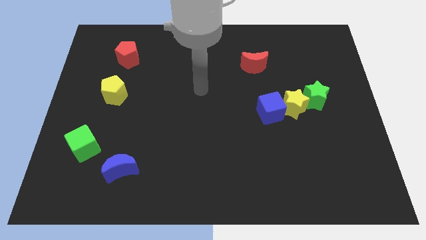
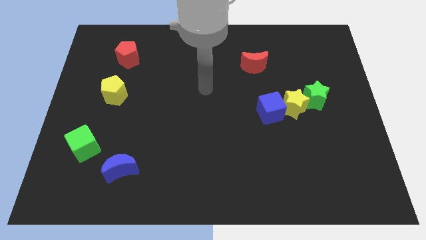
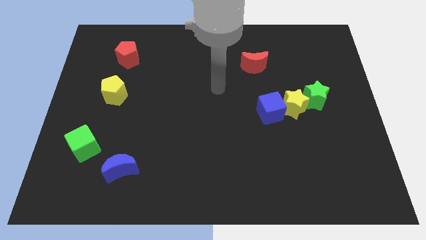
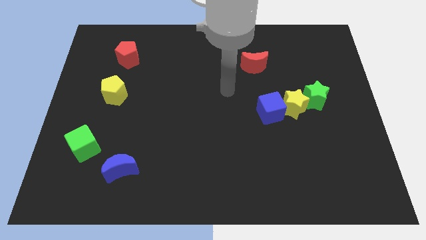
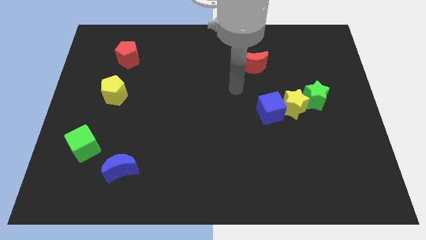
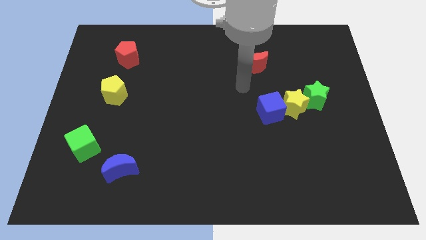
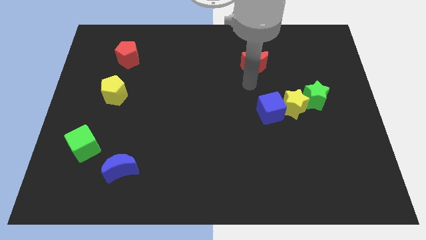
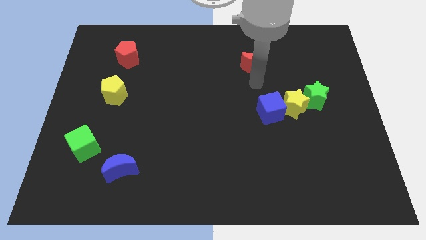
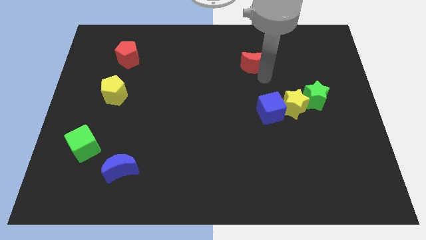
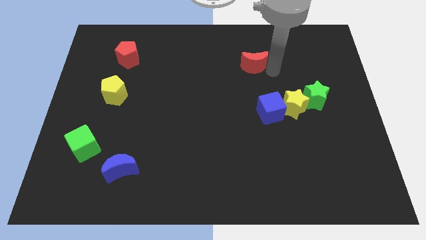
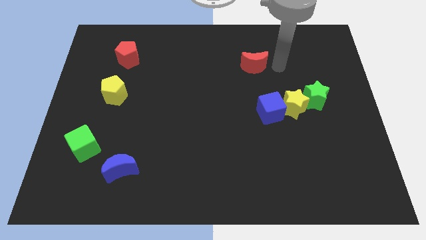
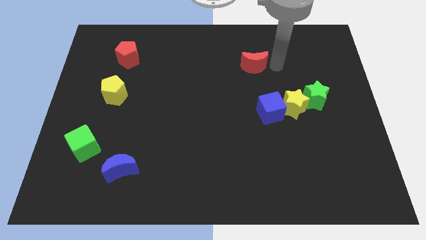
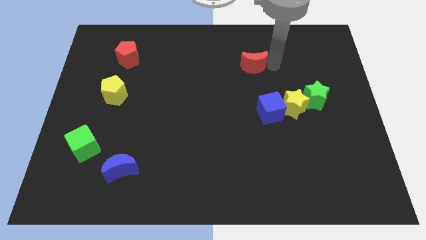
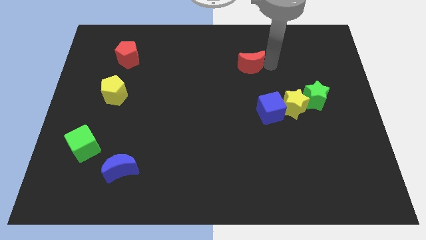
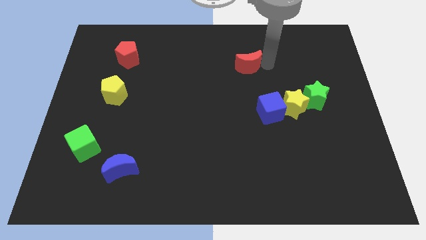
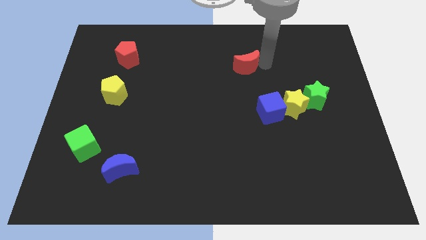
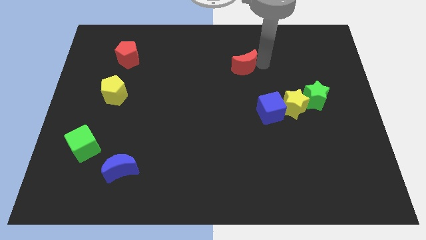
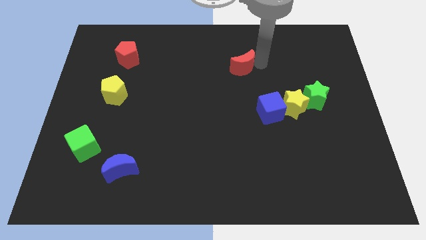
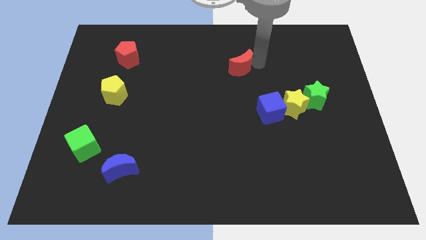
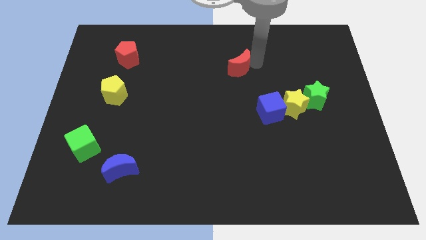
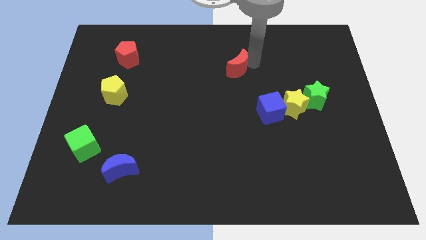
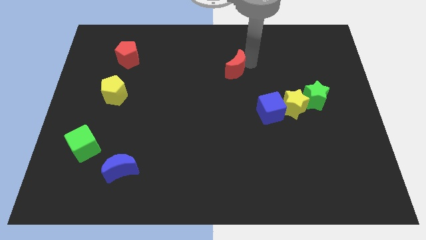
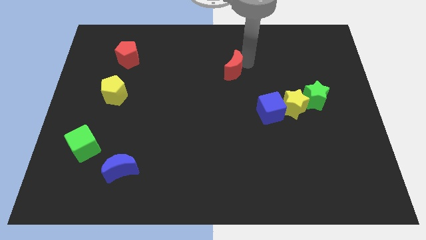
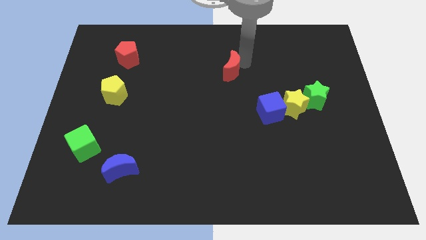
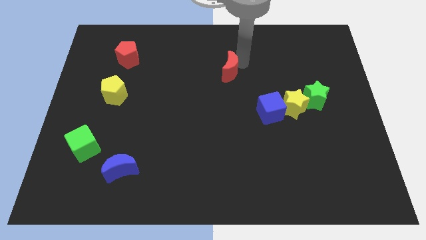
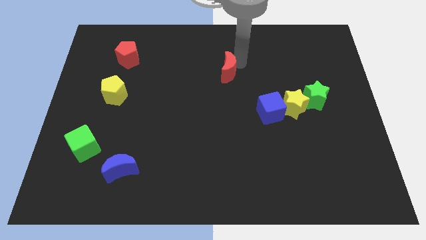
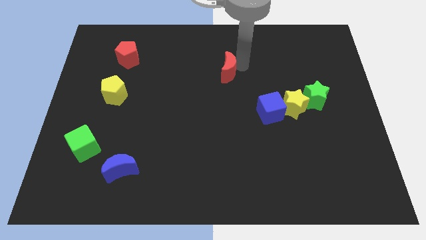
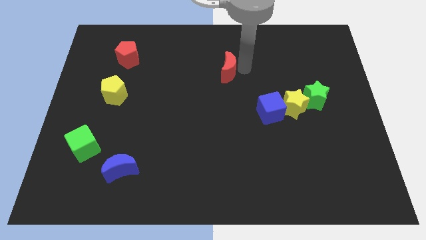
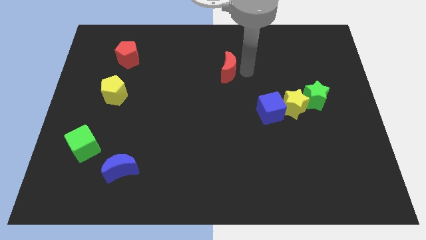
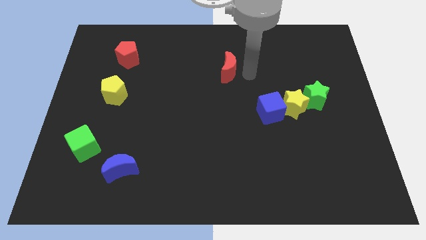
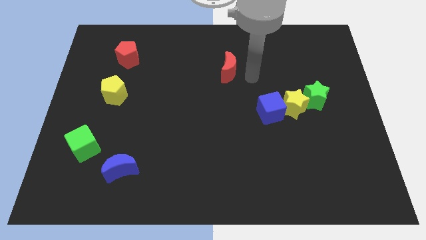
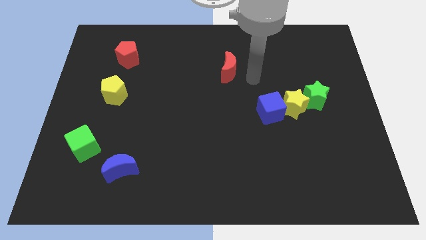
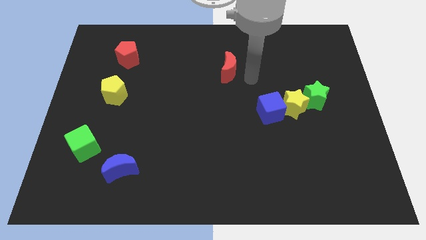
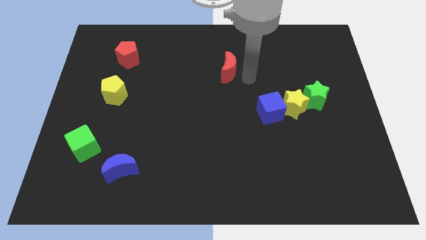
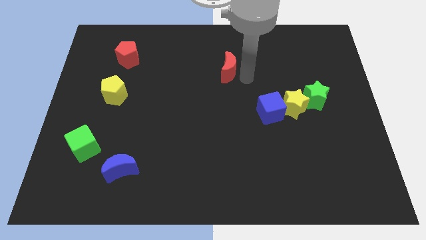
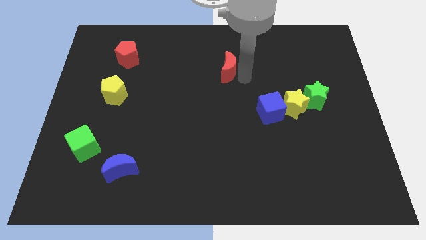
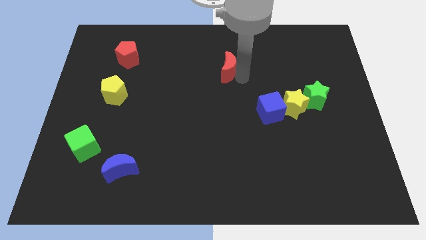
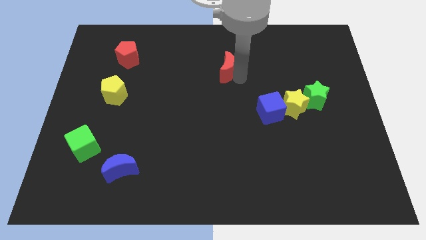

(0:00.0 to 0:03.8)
move the red moon to the left somewhat

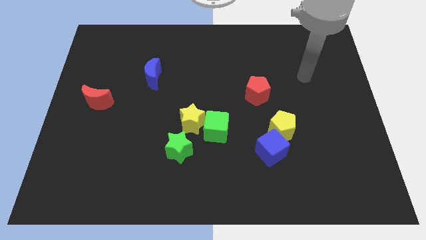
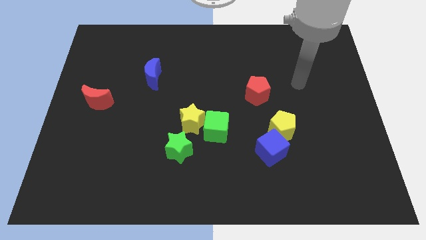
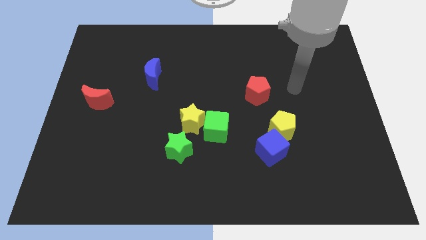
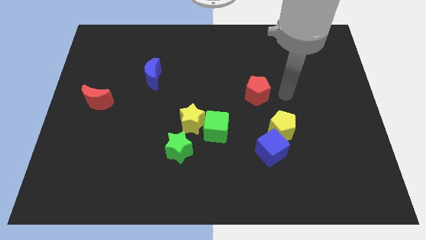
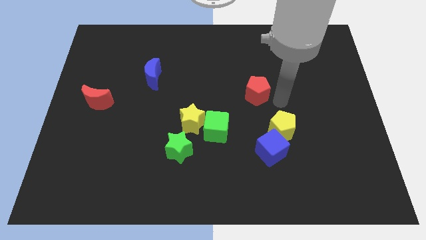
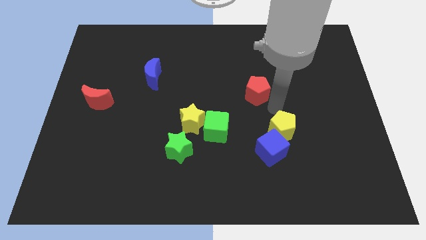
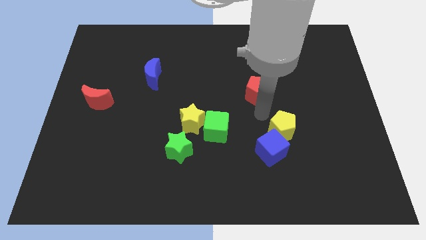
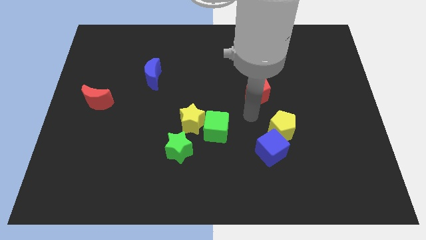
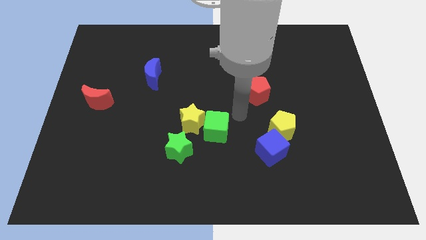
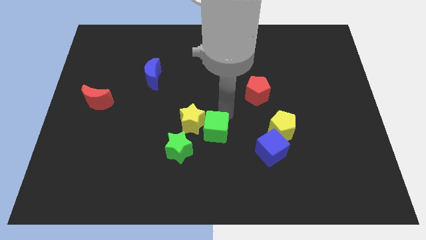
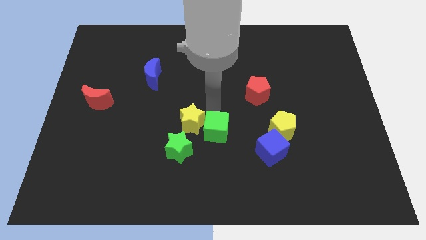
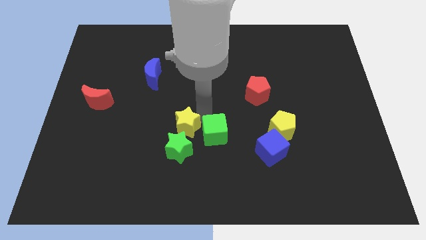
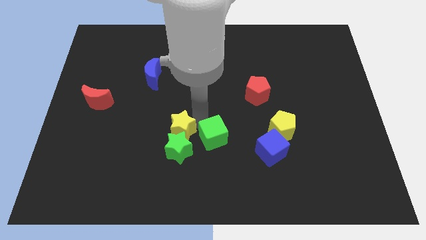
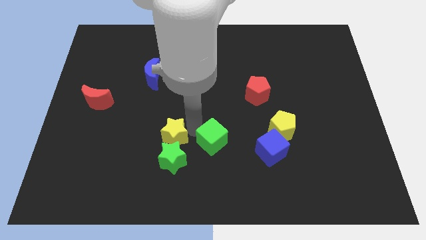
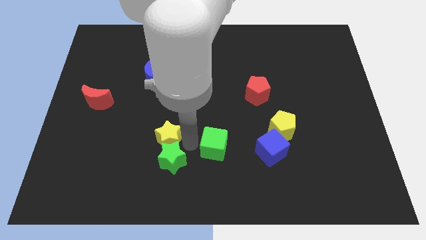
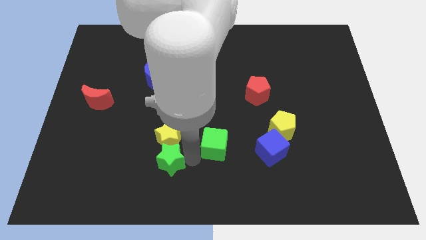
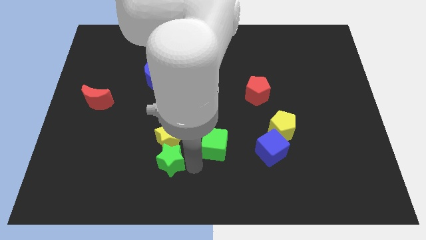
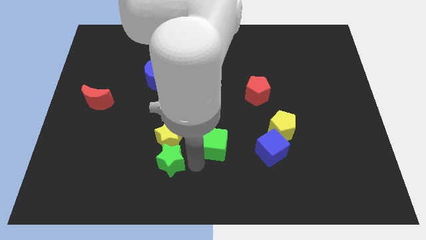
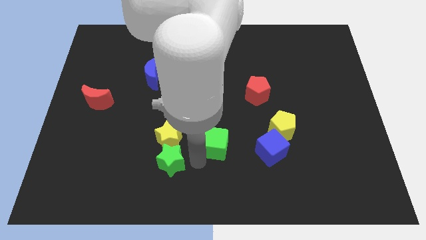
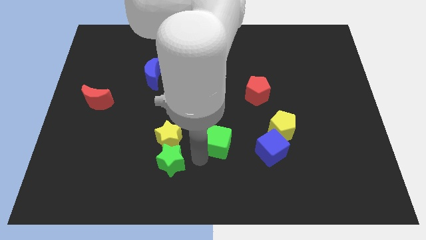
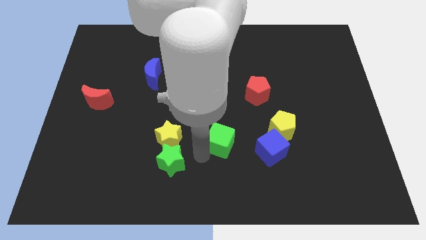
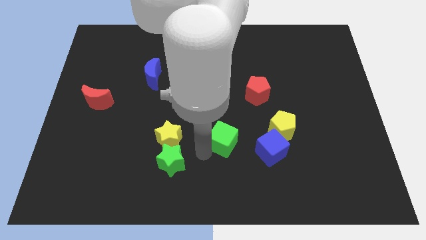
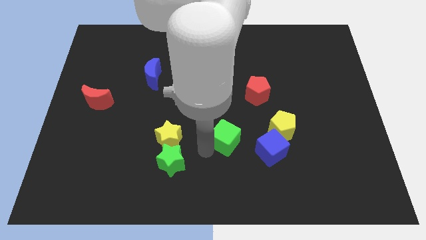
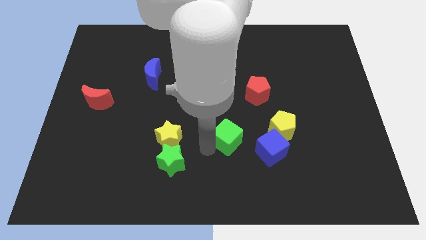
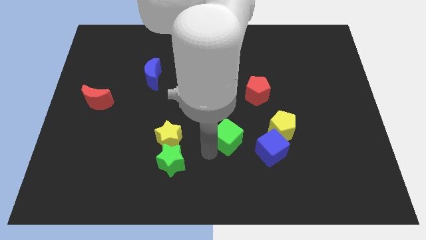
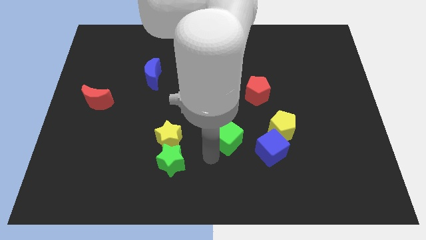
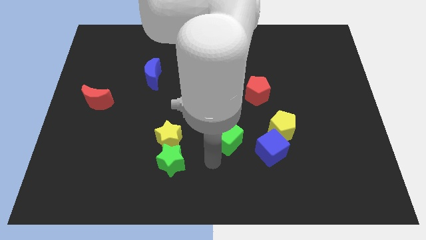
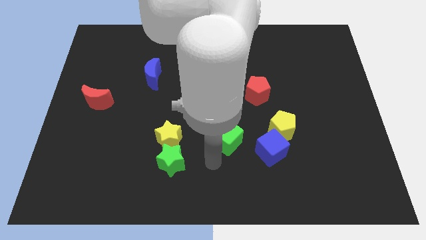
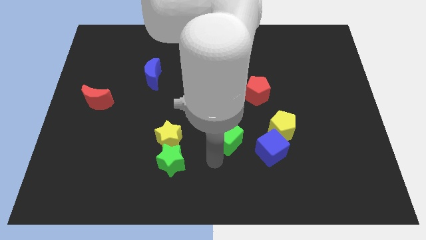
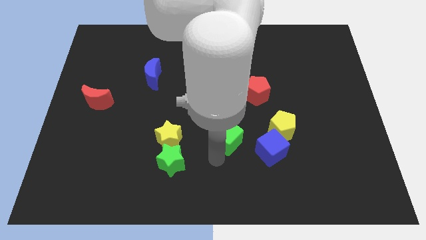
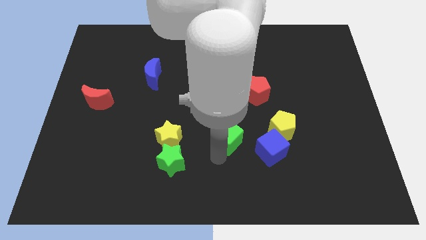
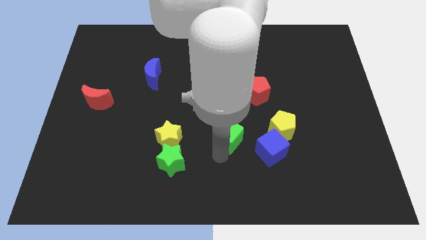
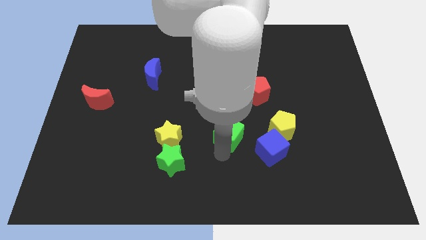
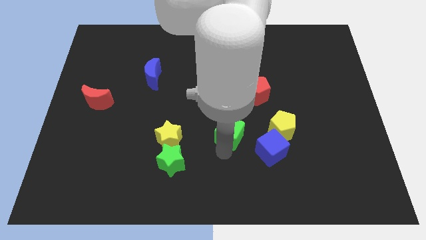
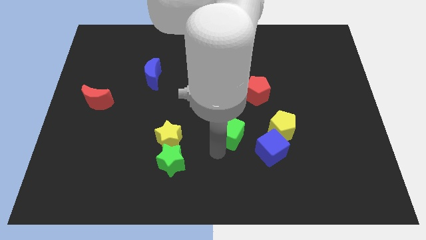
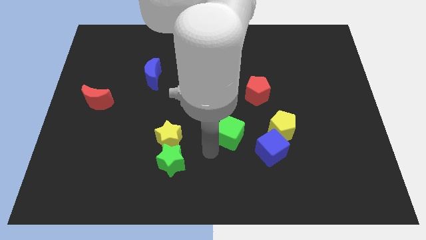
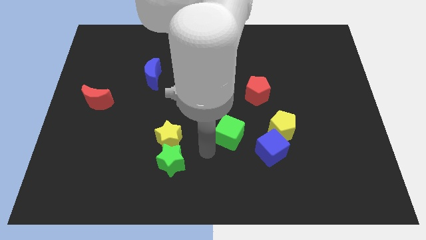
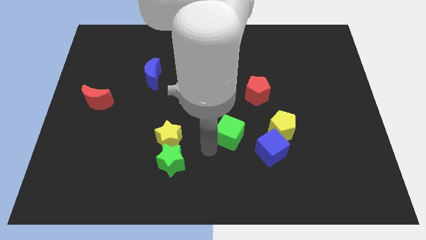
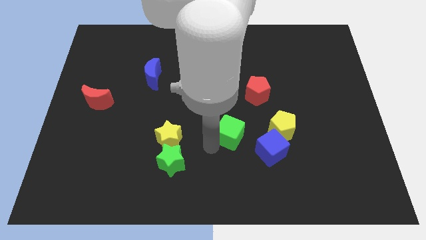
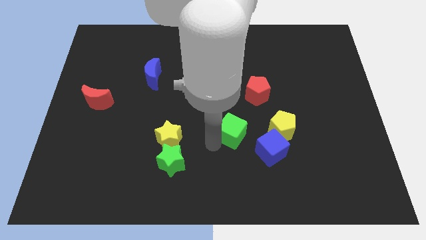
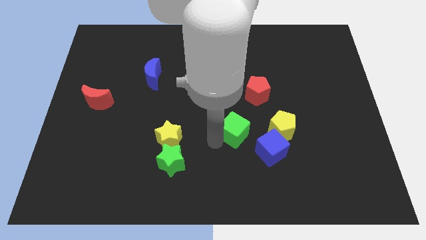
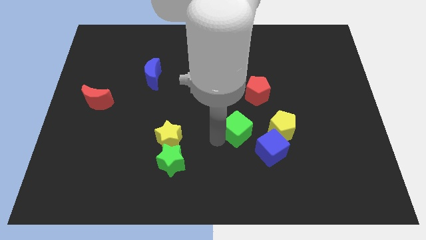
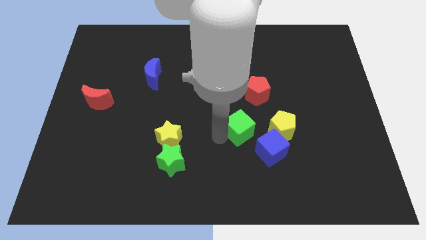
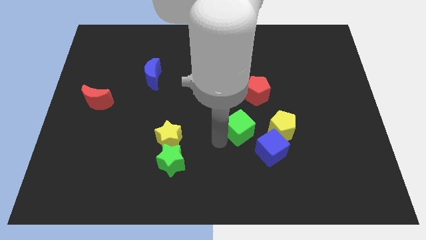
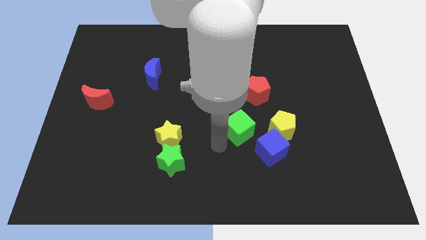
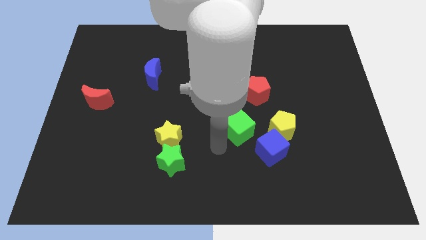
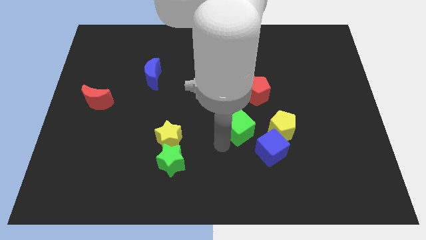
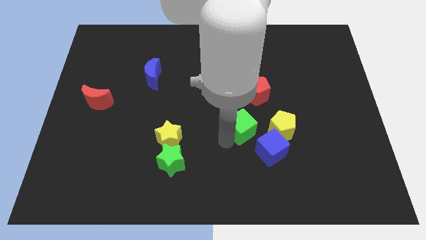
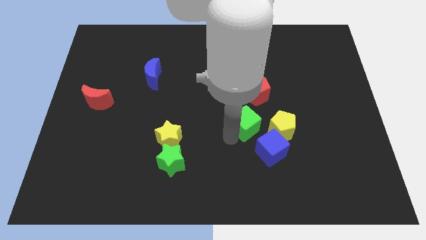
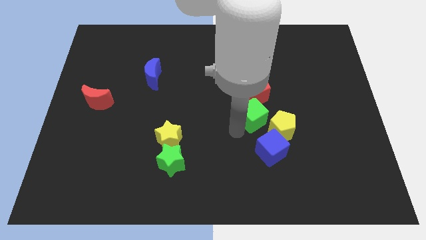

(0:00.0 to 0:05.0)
move the green cube a little to the right
